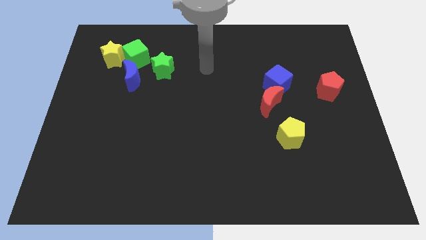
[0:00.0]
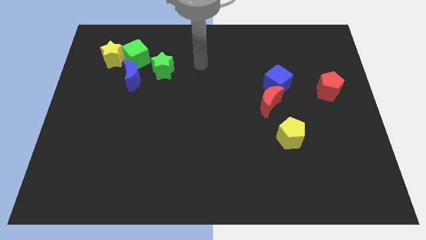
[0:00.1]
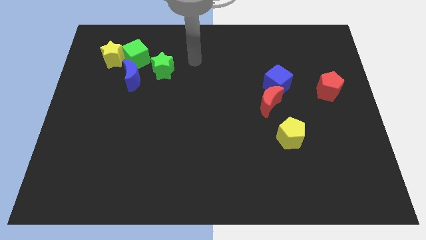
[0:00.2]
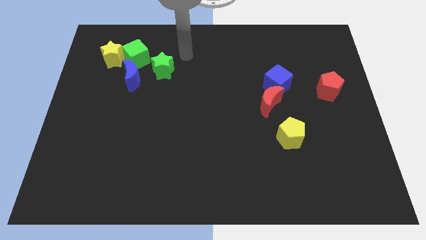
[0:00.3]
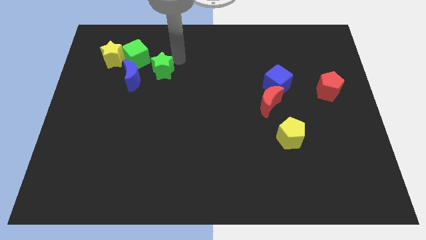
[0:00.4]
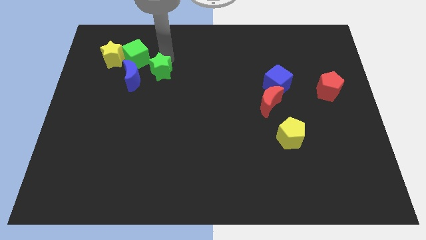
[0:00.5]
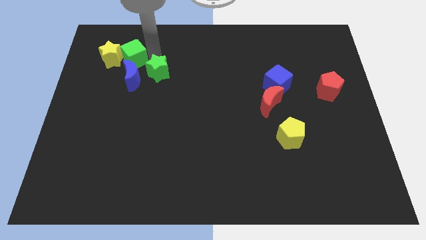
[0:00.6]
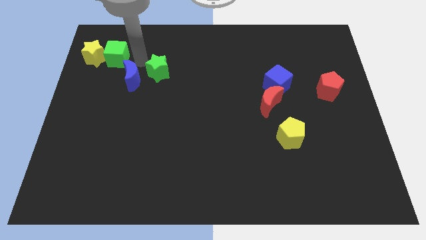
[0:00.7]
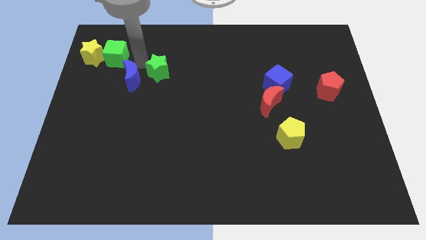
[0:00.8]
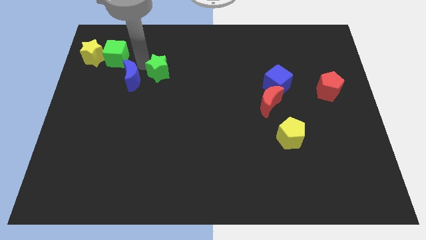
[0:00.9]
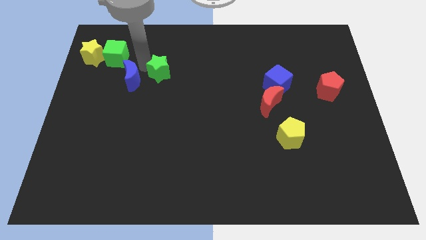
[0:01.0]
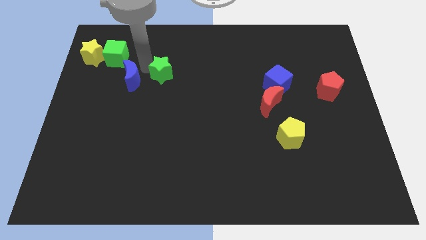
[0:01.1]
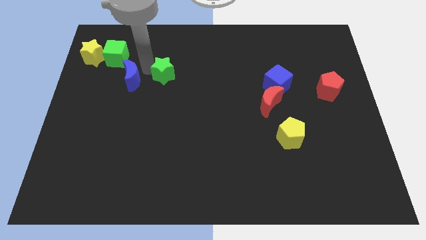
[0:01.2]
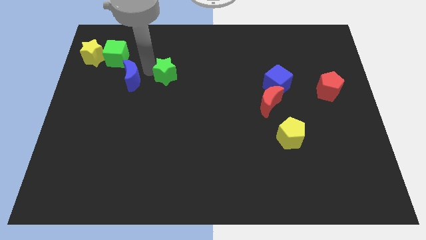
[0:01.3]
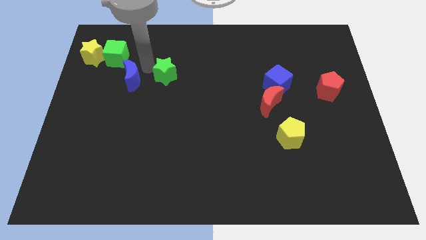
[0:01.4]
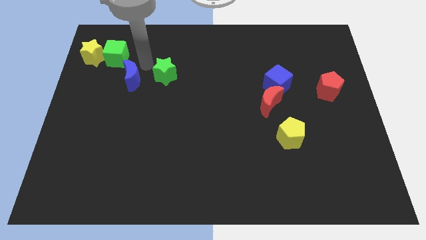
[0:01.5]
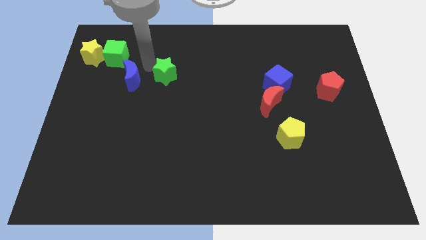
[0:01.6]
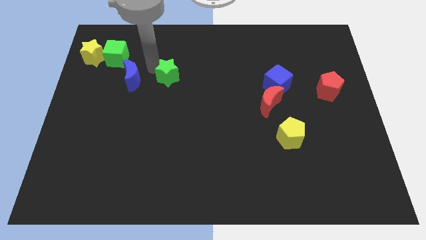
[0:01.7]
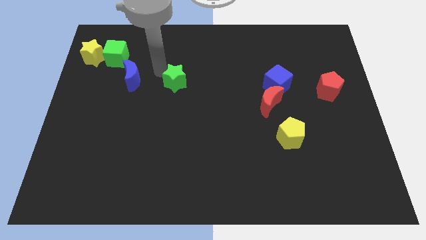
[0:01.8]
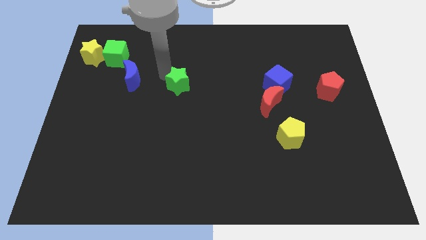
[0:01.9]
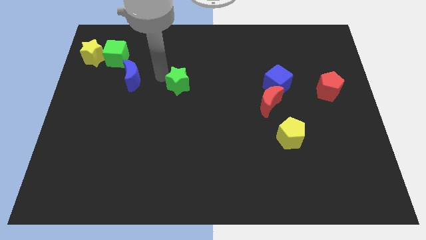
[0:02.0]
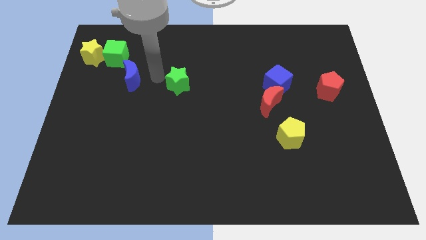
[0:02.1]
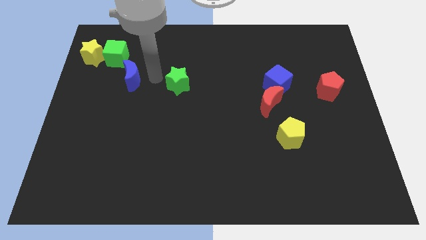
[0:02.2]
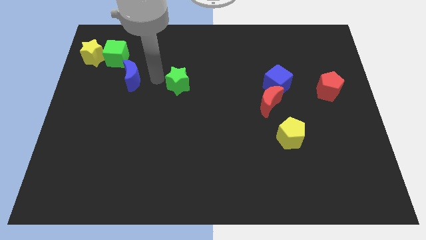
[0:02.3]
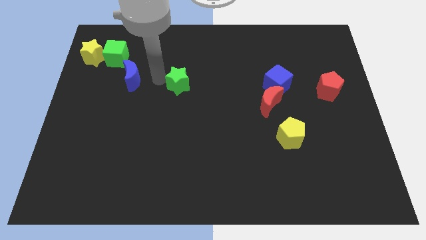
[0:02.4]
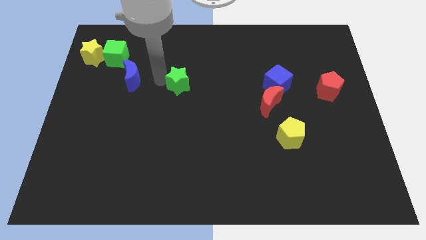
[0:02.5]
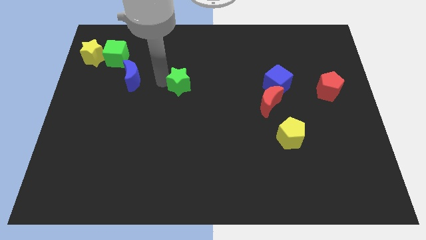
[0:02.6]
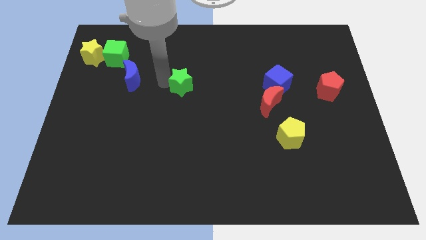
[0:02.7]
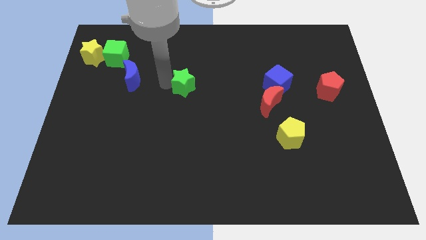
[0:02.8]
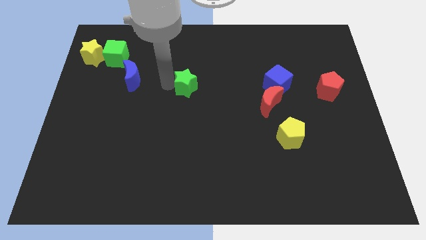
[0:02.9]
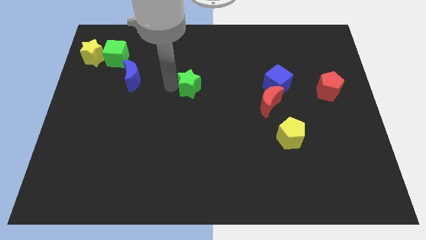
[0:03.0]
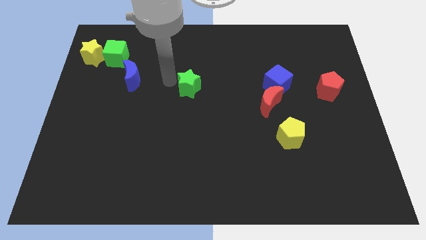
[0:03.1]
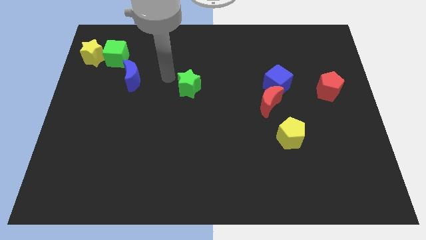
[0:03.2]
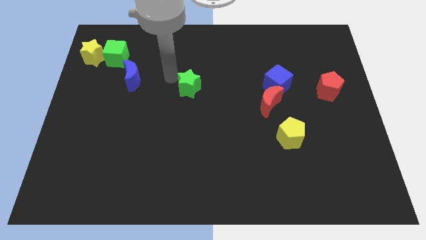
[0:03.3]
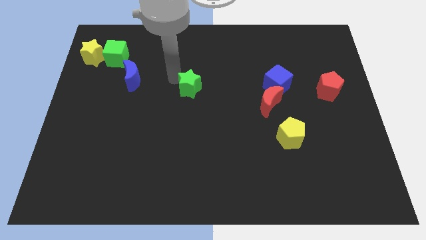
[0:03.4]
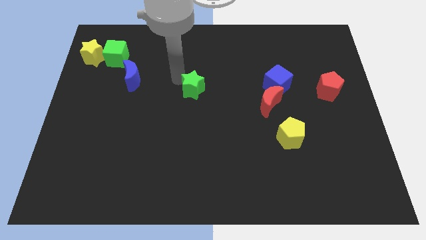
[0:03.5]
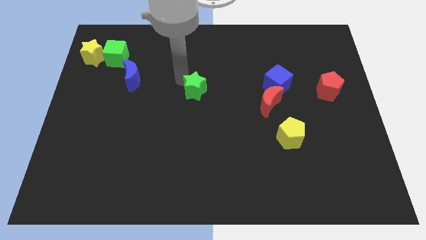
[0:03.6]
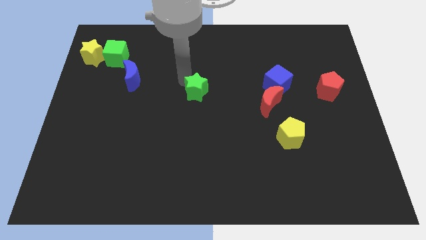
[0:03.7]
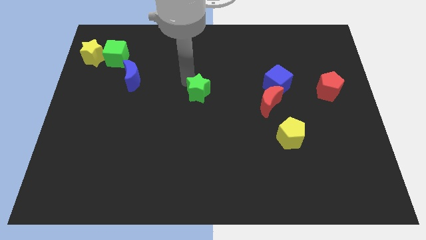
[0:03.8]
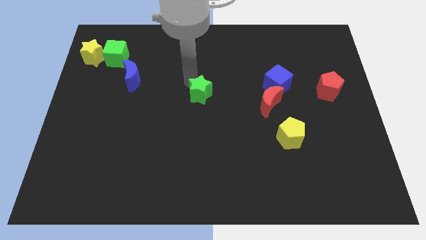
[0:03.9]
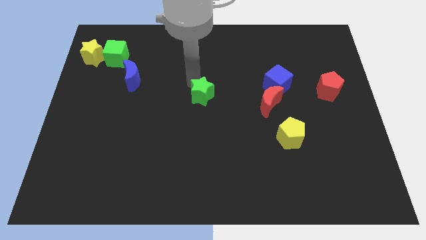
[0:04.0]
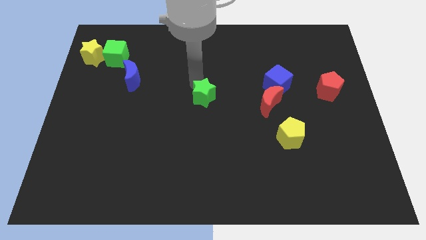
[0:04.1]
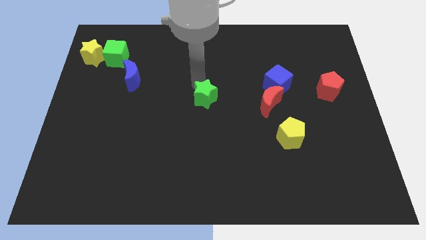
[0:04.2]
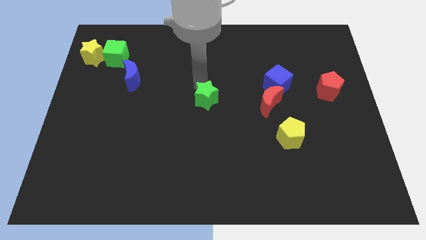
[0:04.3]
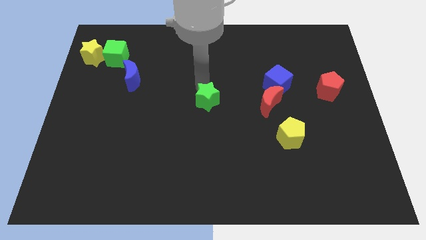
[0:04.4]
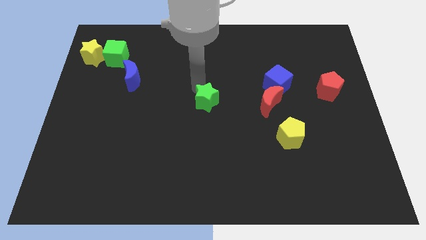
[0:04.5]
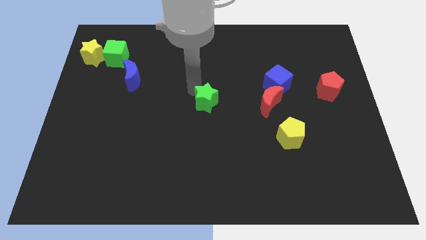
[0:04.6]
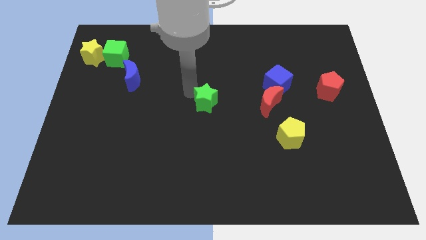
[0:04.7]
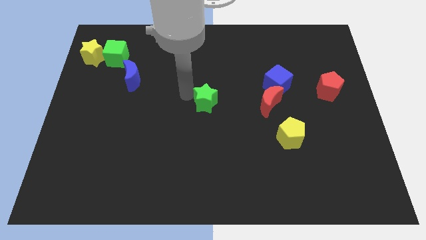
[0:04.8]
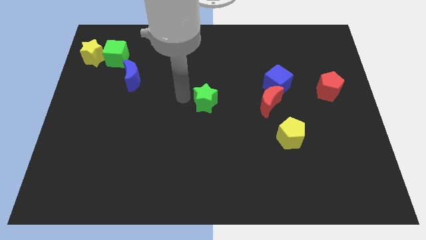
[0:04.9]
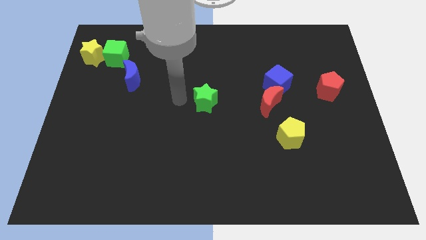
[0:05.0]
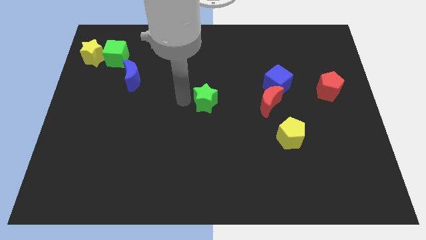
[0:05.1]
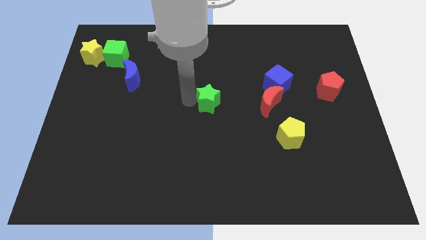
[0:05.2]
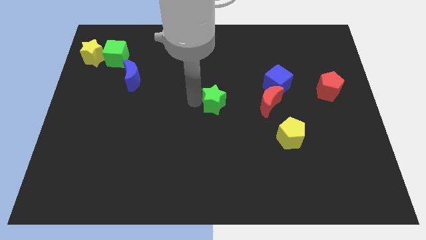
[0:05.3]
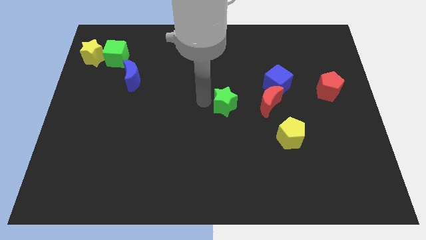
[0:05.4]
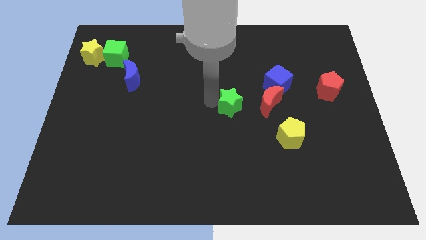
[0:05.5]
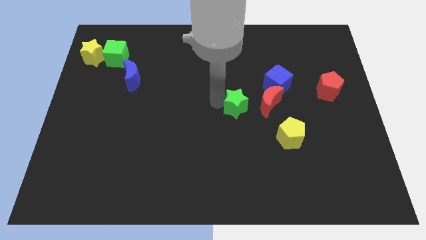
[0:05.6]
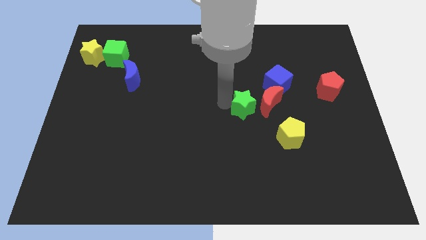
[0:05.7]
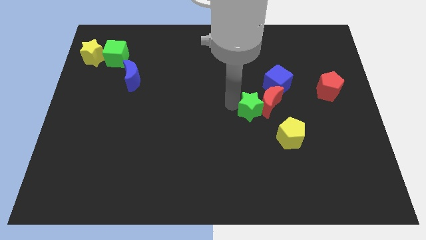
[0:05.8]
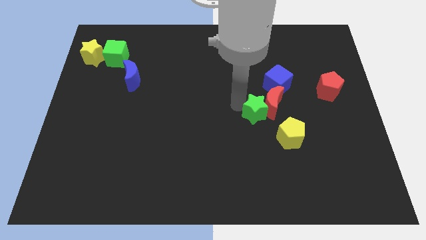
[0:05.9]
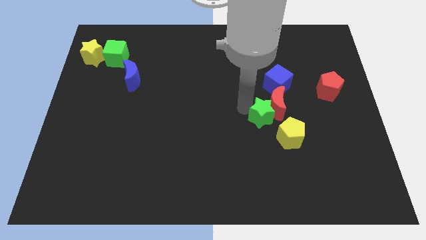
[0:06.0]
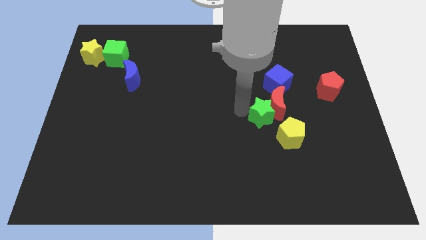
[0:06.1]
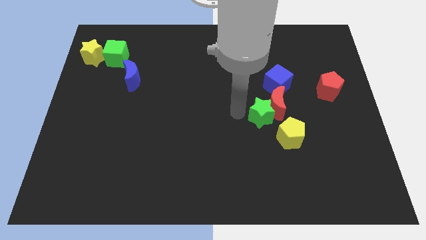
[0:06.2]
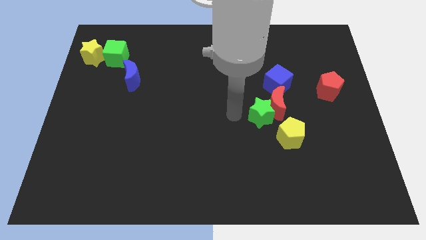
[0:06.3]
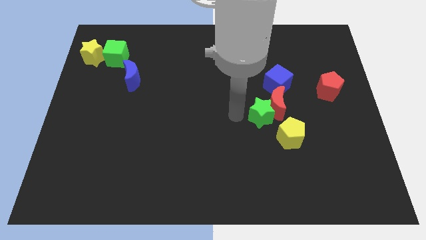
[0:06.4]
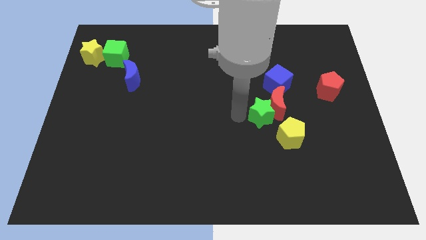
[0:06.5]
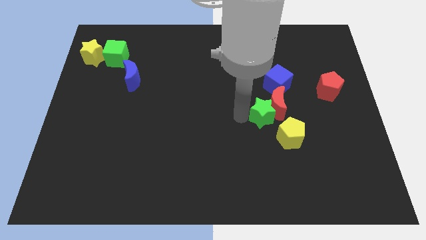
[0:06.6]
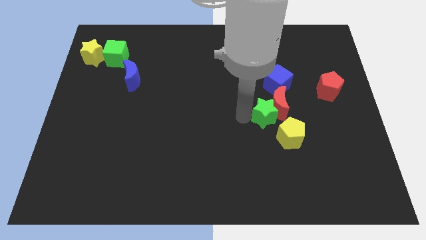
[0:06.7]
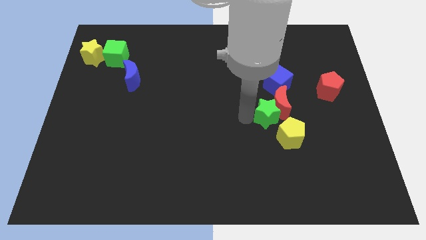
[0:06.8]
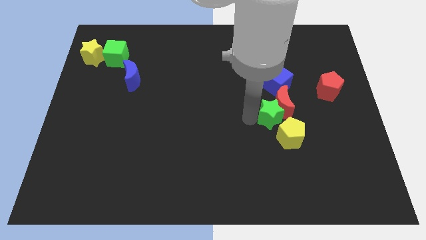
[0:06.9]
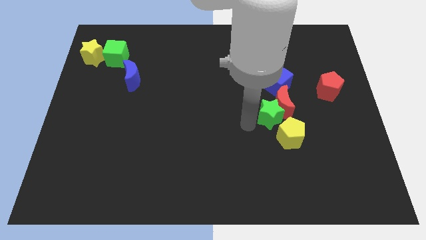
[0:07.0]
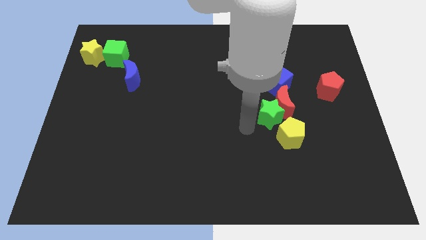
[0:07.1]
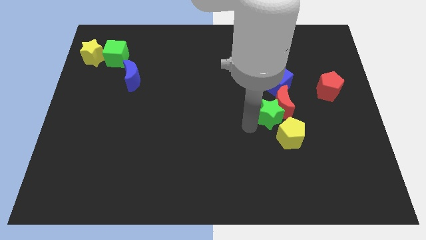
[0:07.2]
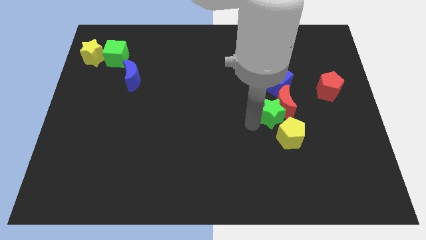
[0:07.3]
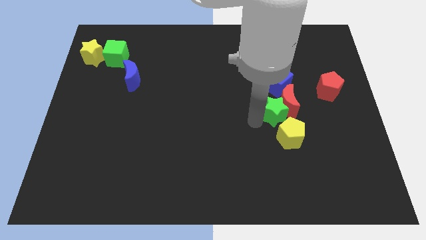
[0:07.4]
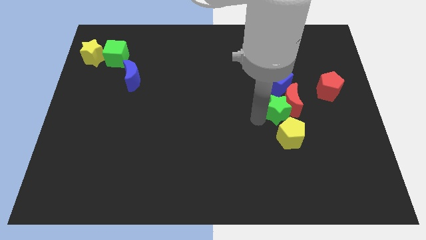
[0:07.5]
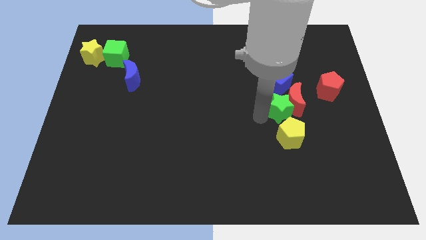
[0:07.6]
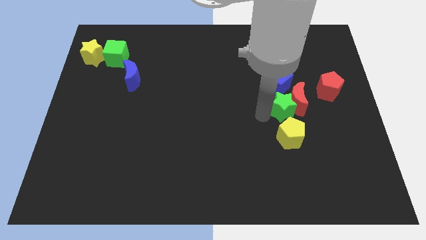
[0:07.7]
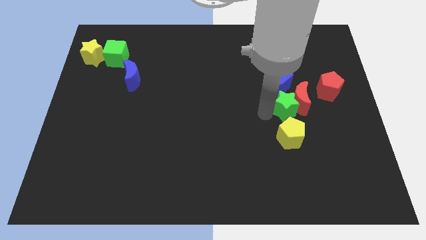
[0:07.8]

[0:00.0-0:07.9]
slide the green star to the bottom right side of the blue cube

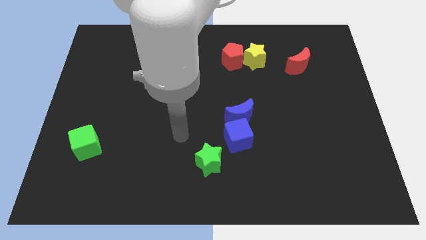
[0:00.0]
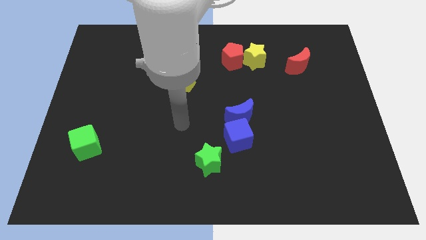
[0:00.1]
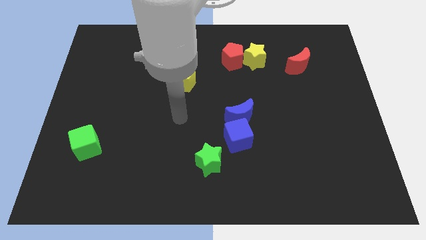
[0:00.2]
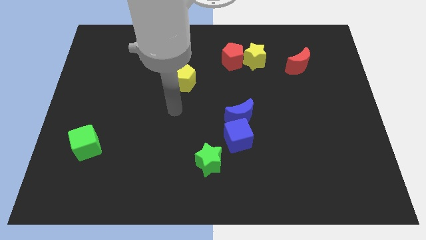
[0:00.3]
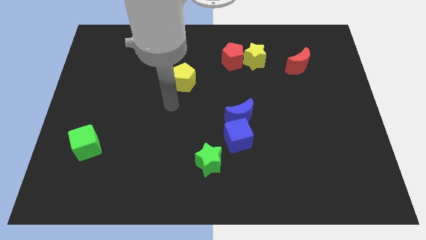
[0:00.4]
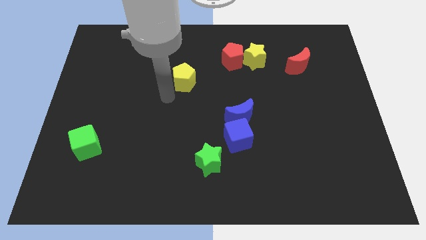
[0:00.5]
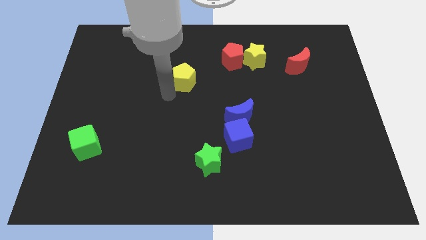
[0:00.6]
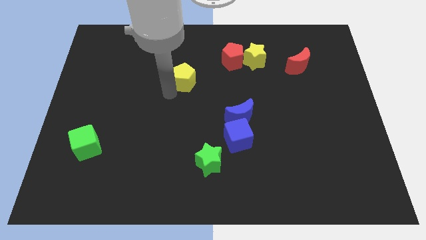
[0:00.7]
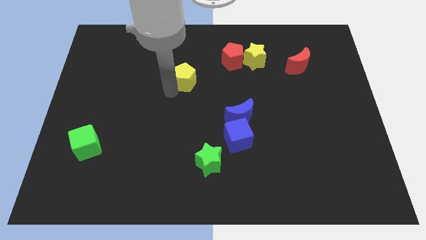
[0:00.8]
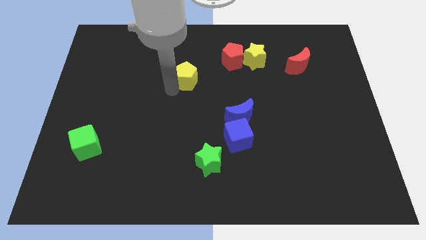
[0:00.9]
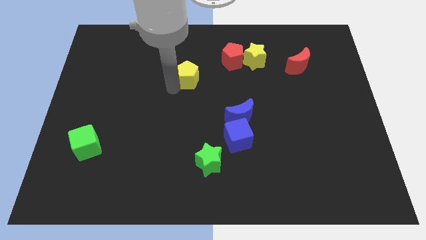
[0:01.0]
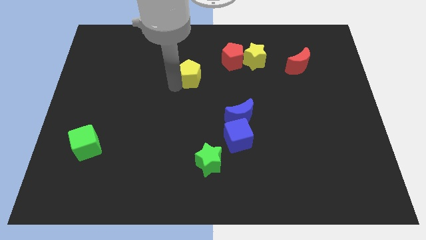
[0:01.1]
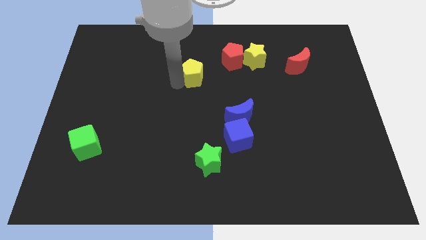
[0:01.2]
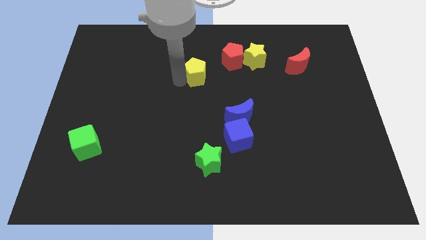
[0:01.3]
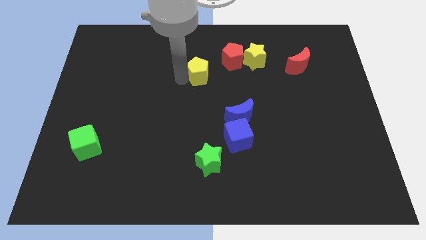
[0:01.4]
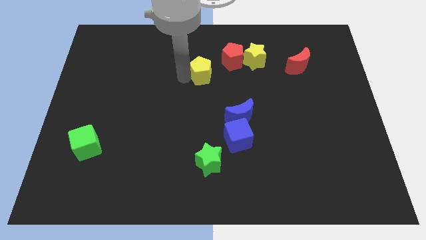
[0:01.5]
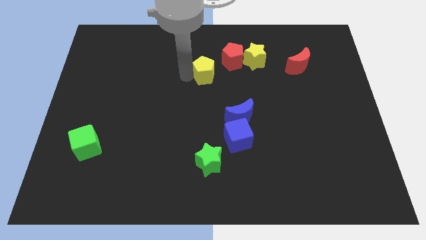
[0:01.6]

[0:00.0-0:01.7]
push the yellow pentagon to the left of the yellow star
